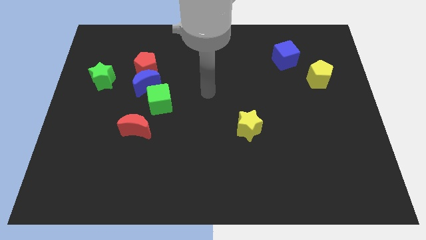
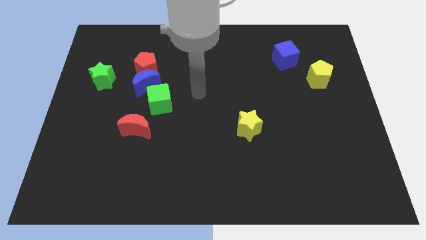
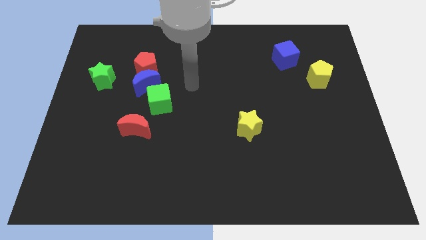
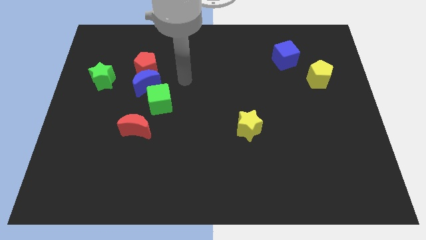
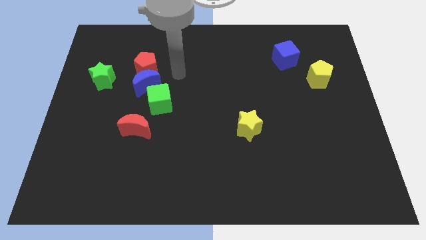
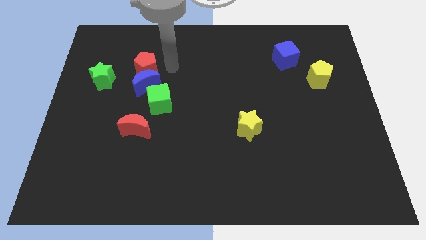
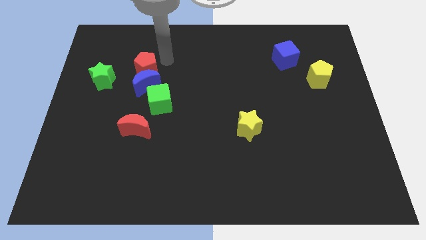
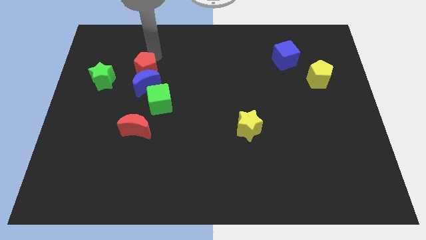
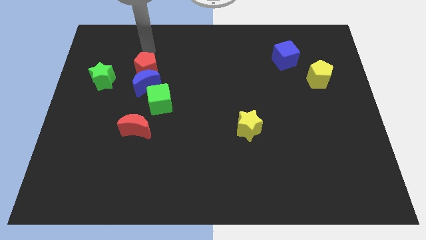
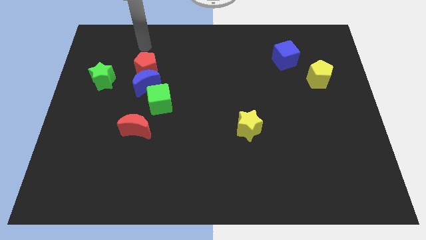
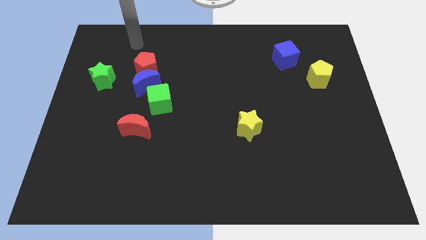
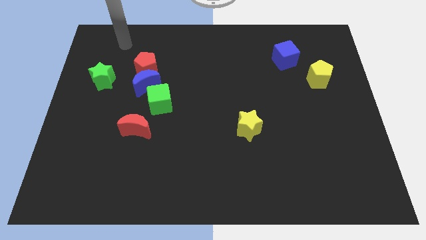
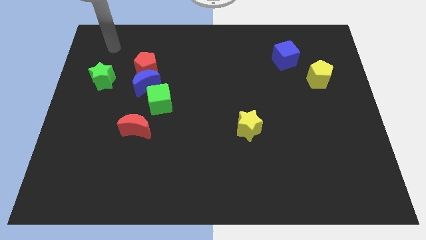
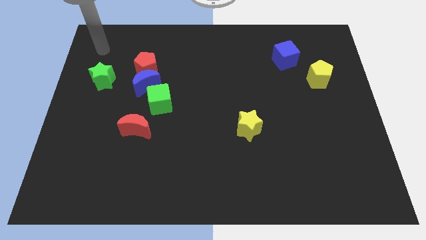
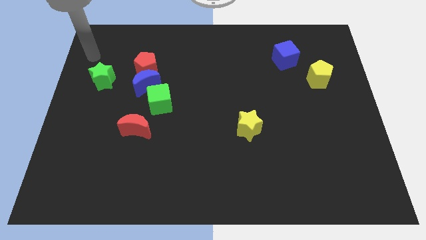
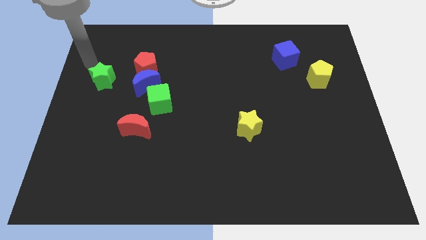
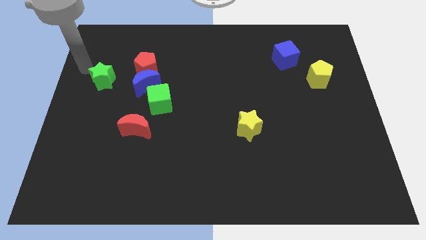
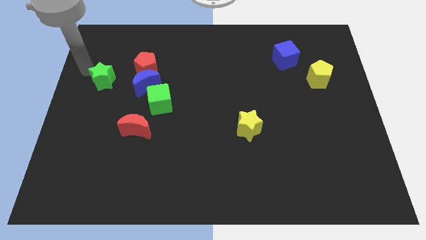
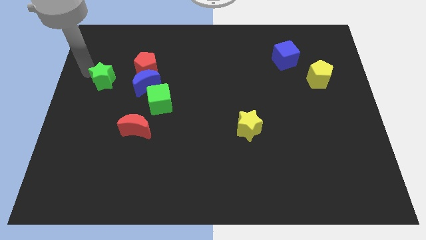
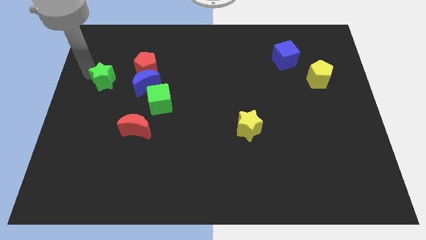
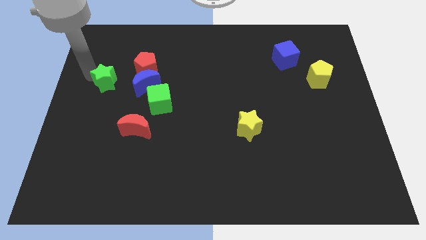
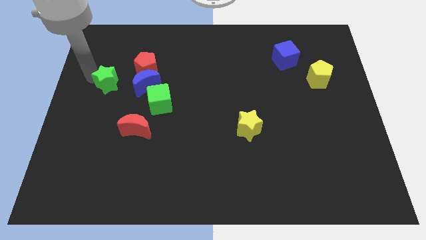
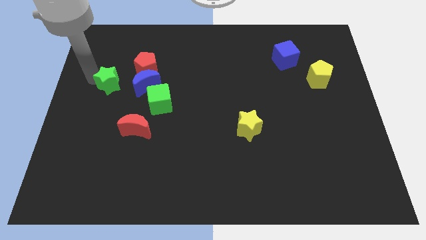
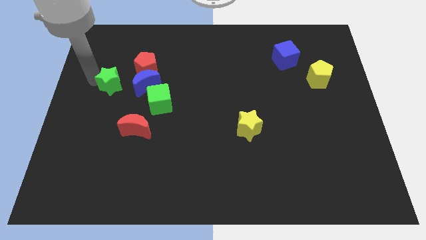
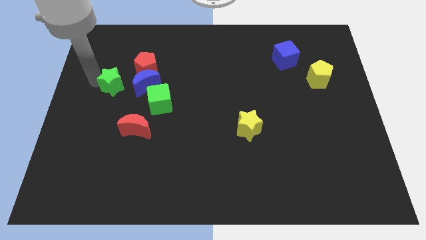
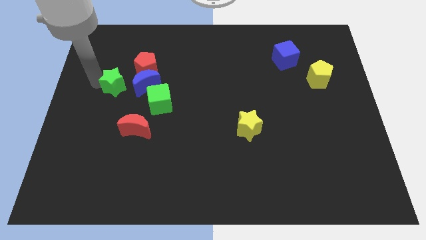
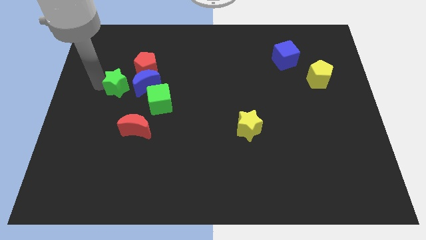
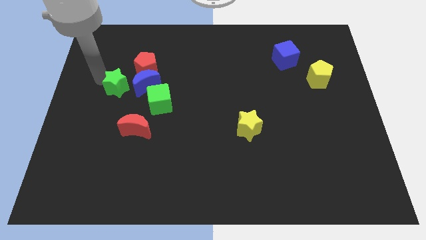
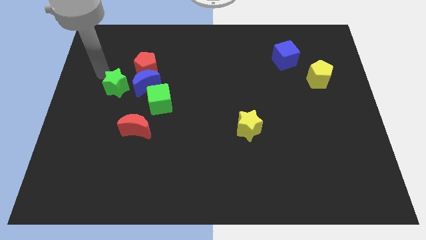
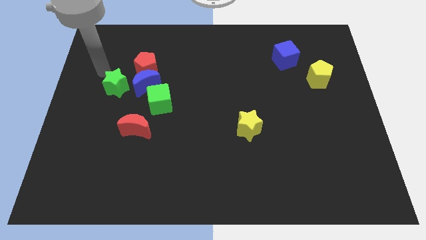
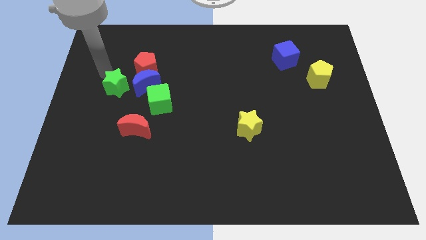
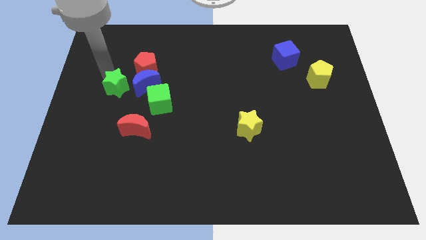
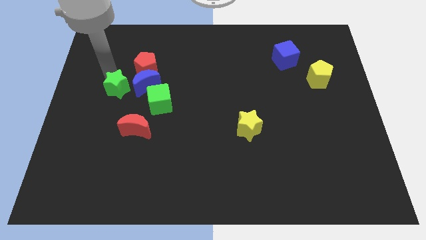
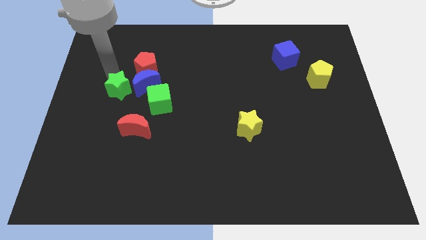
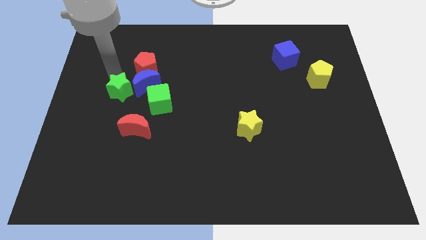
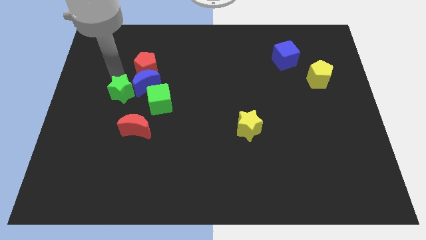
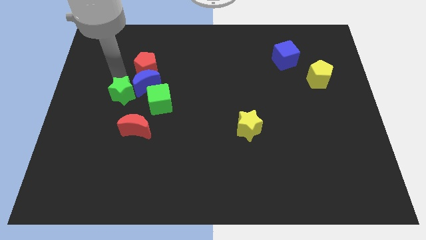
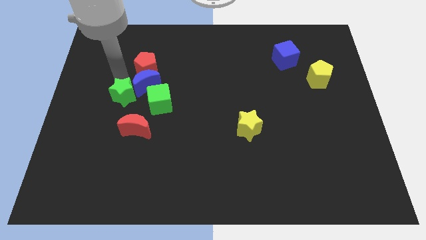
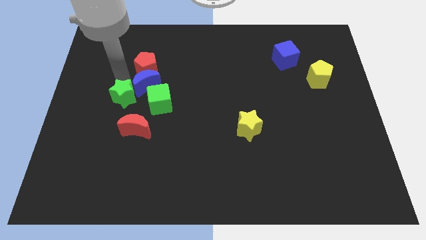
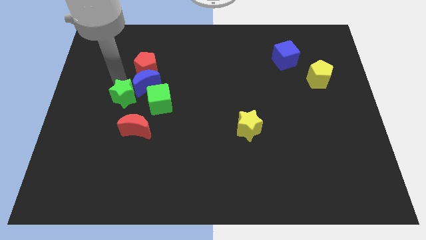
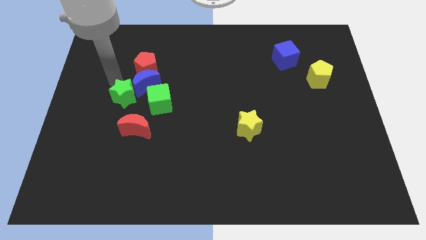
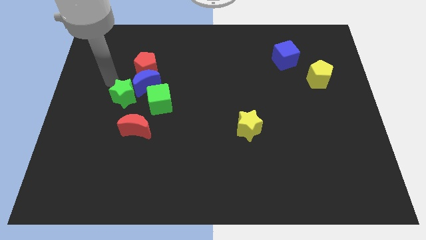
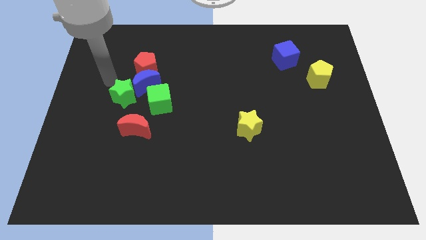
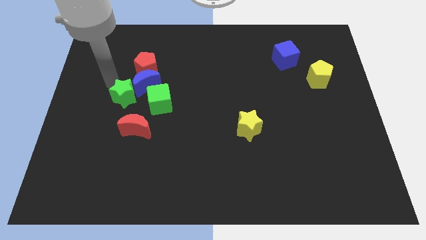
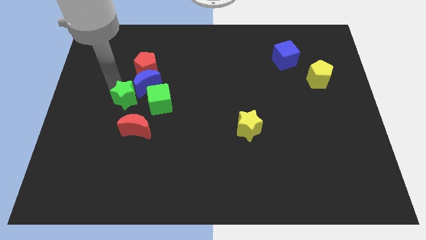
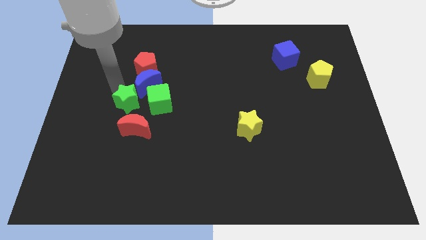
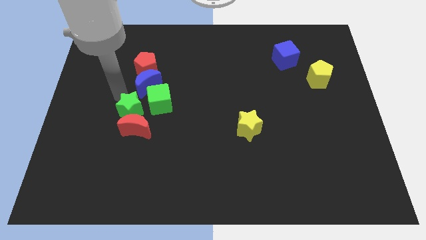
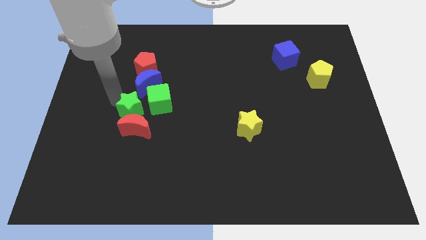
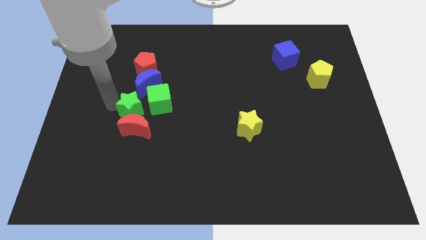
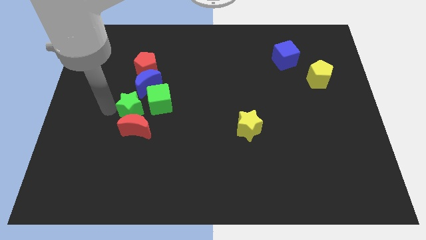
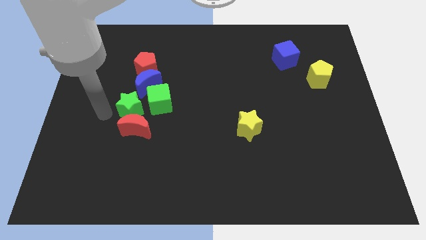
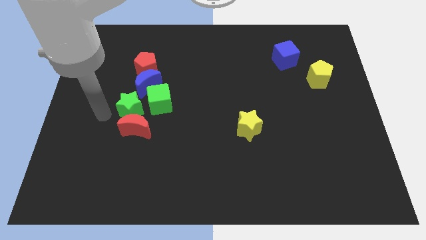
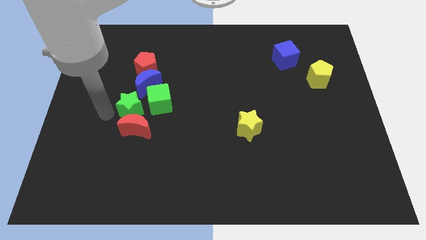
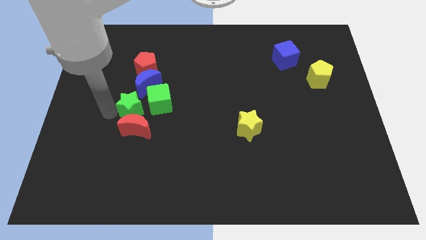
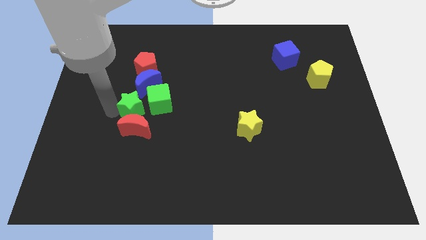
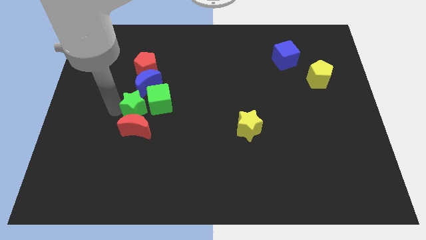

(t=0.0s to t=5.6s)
move the green star towards the green cube

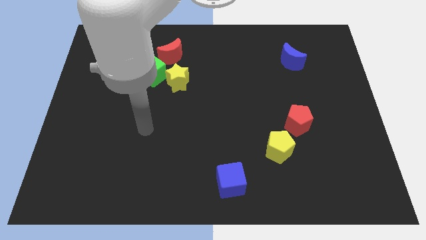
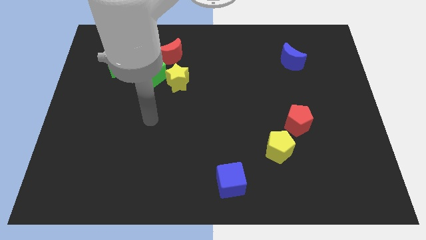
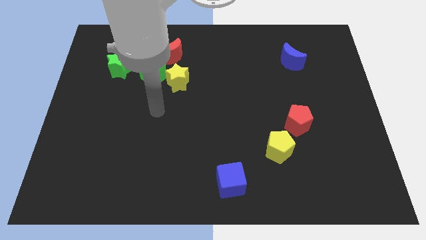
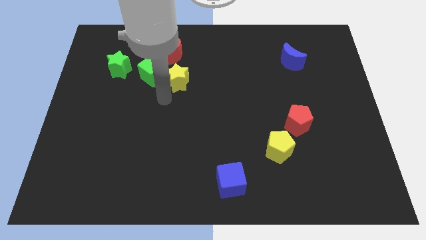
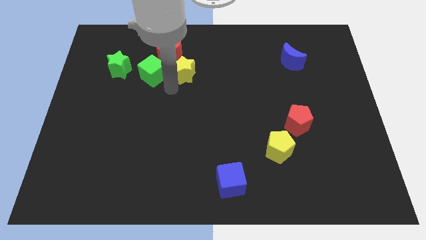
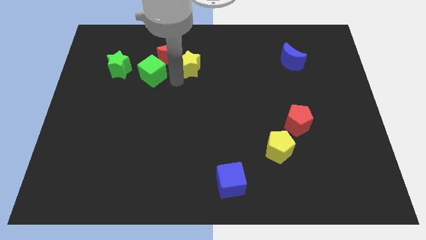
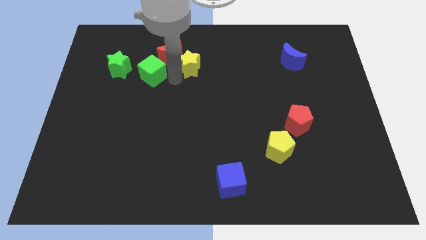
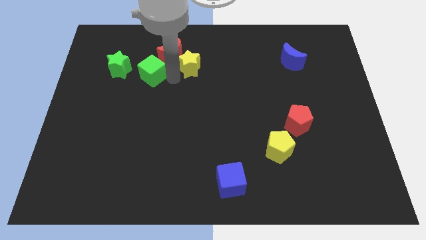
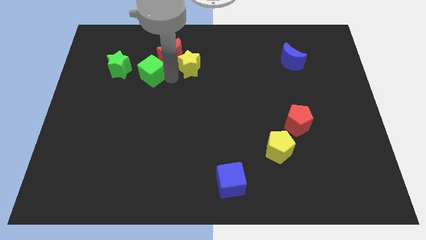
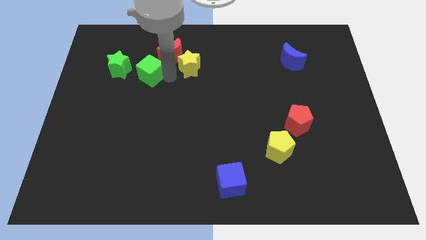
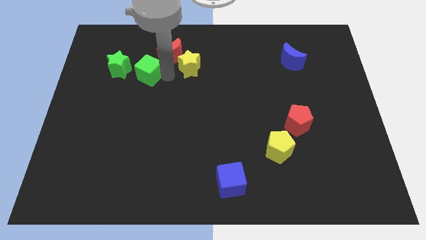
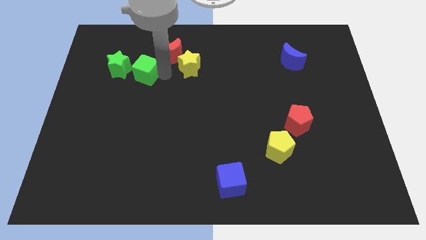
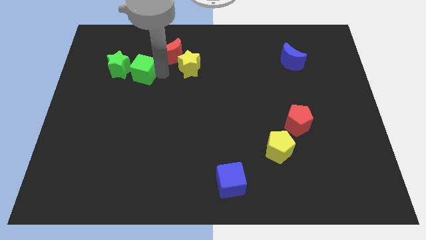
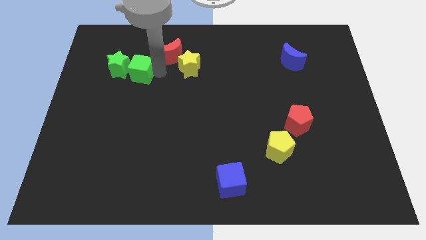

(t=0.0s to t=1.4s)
move the green cube close to the green star
